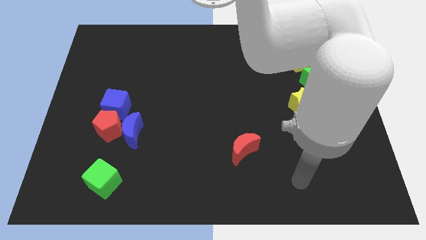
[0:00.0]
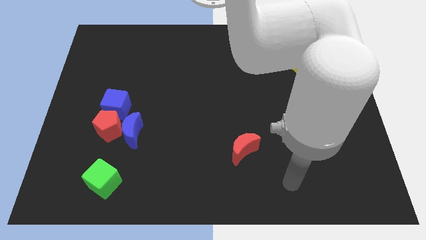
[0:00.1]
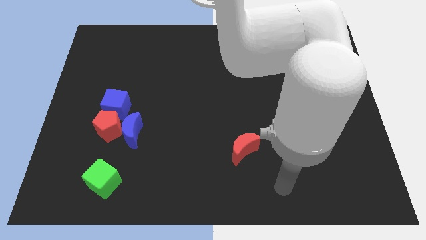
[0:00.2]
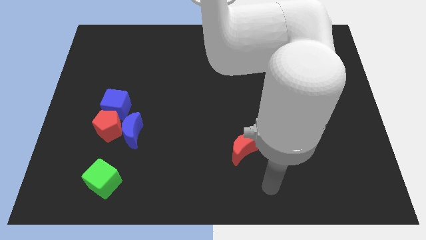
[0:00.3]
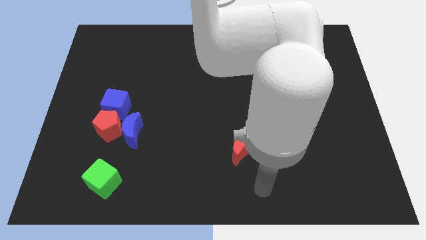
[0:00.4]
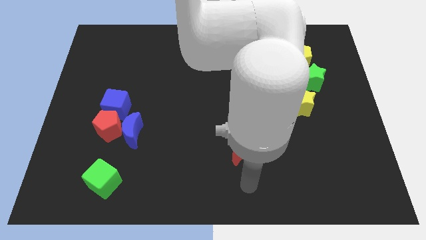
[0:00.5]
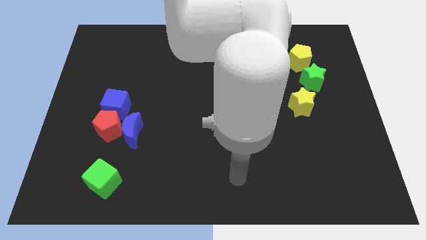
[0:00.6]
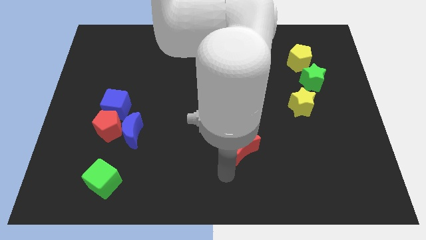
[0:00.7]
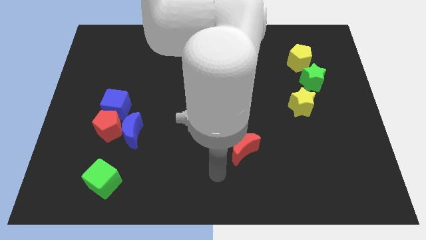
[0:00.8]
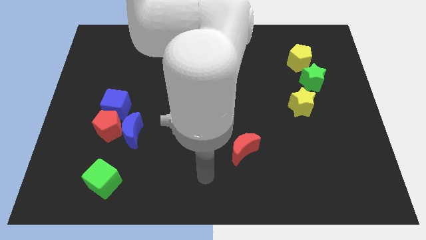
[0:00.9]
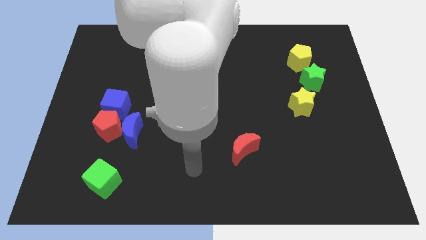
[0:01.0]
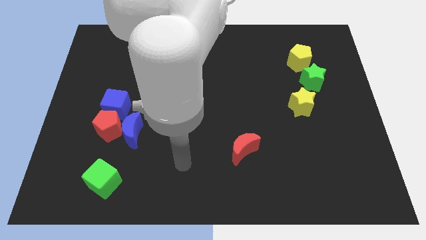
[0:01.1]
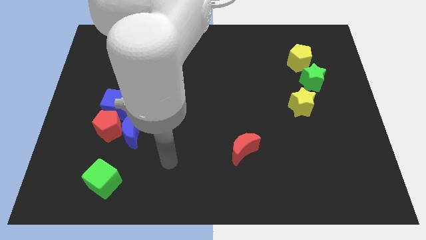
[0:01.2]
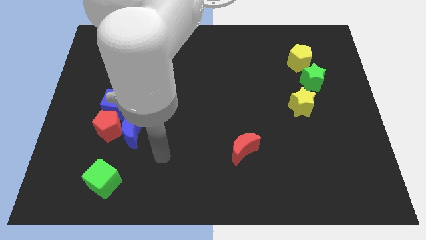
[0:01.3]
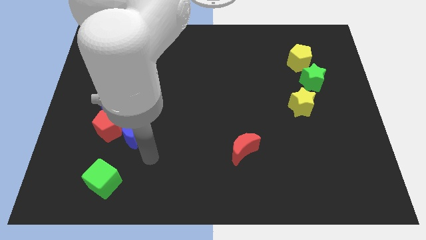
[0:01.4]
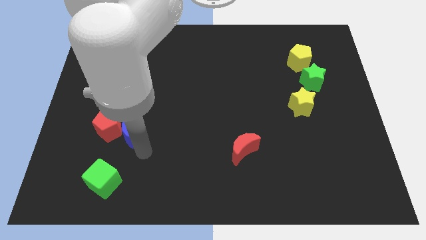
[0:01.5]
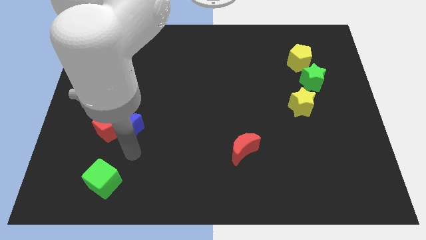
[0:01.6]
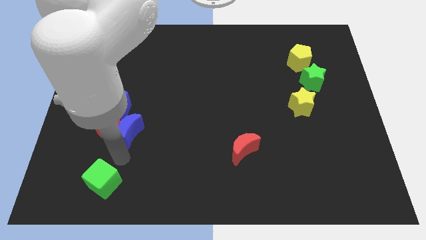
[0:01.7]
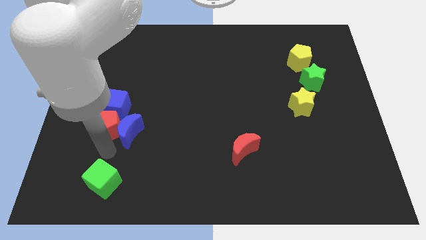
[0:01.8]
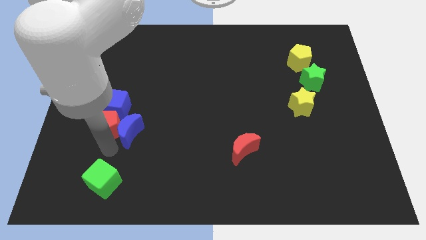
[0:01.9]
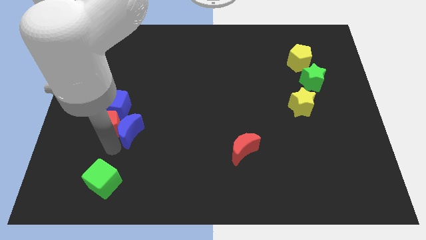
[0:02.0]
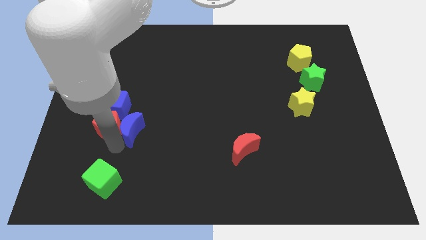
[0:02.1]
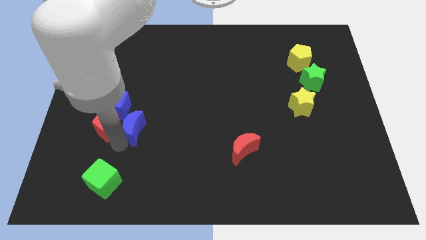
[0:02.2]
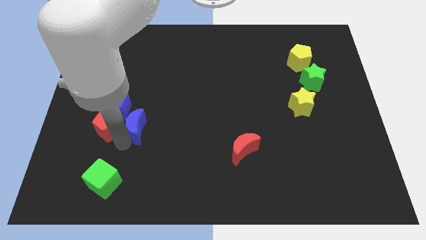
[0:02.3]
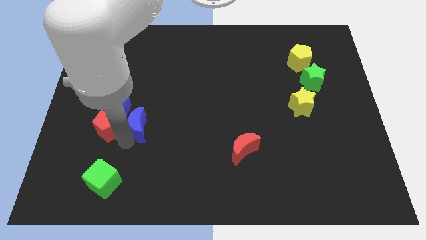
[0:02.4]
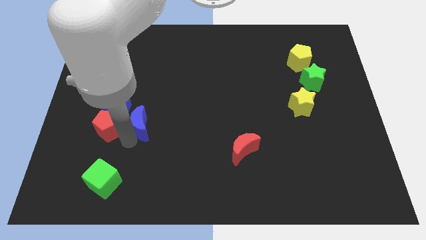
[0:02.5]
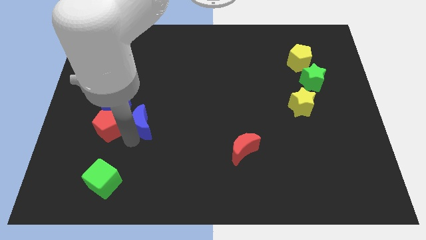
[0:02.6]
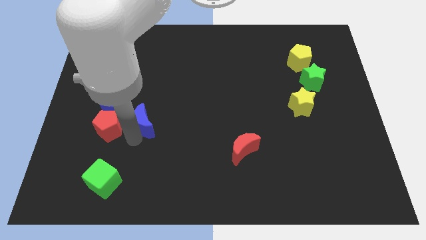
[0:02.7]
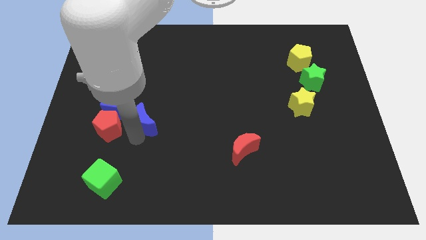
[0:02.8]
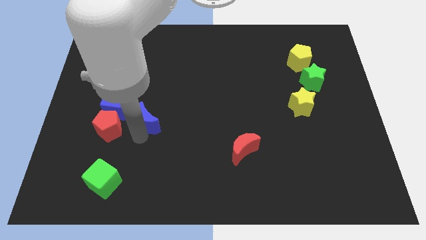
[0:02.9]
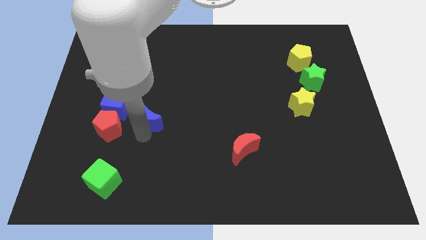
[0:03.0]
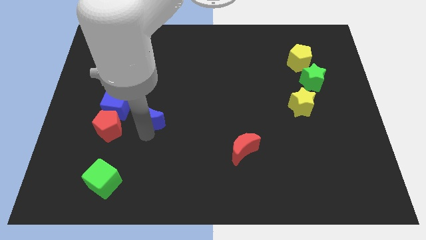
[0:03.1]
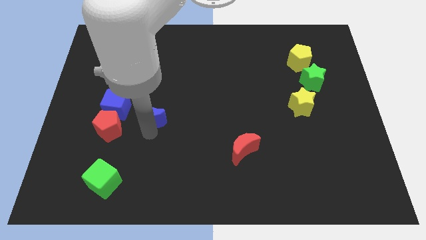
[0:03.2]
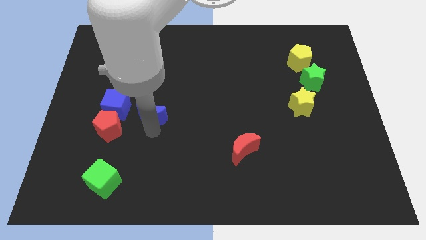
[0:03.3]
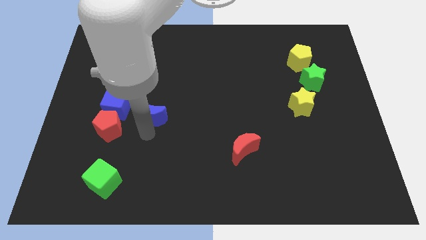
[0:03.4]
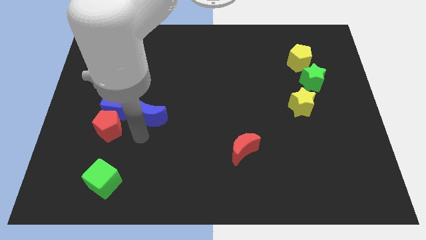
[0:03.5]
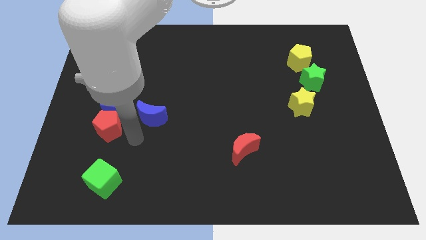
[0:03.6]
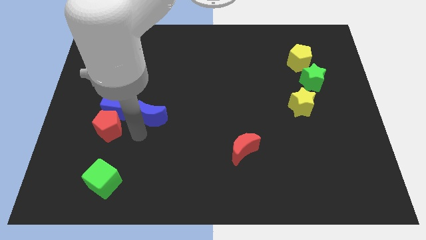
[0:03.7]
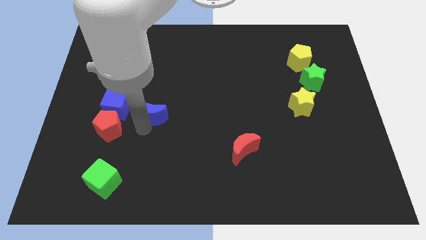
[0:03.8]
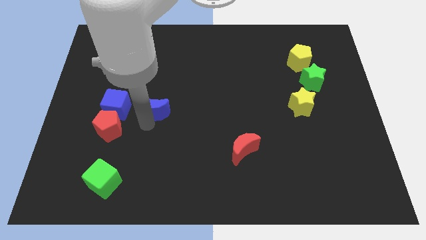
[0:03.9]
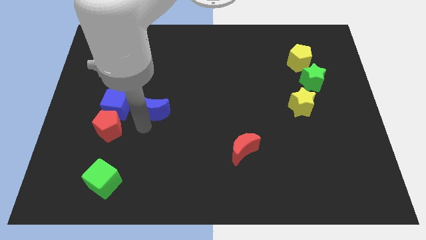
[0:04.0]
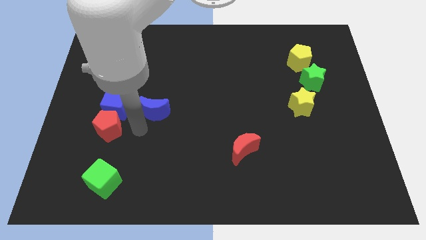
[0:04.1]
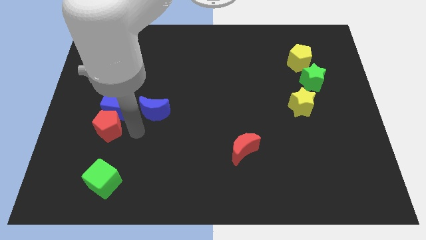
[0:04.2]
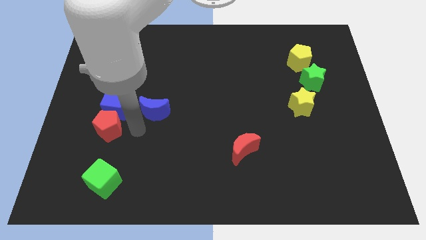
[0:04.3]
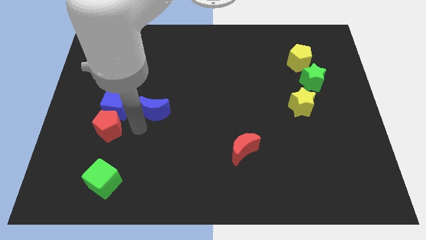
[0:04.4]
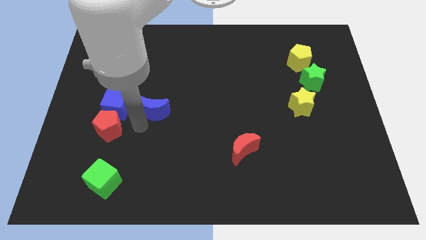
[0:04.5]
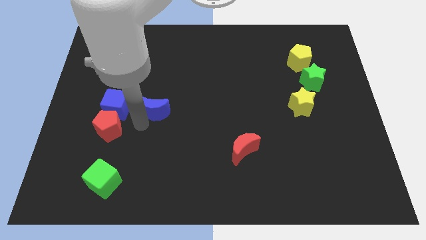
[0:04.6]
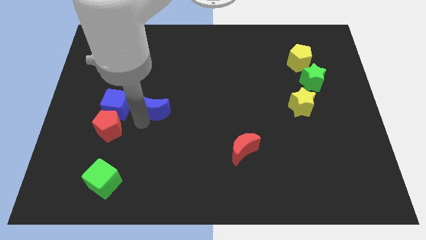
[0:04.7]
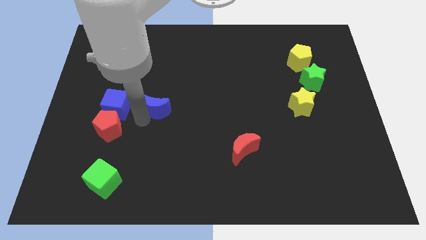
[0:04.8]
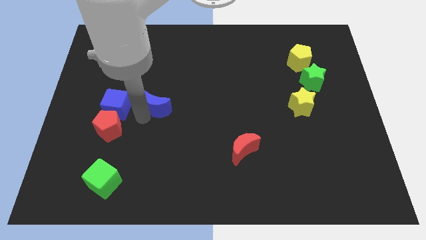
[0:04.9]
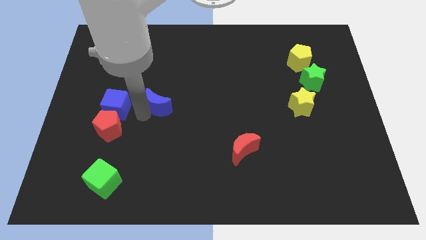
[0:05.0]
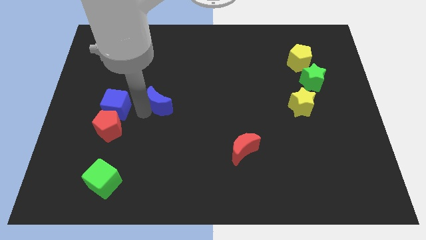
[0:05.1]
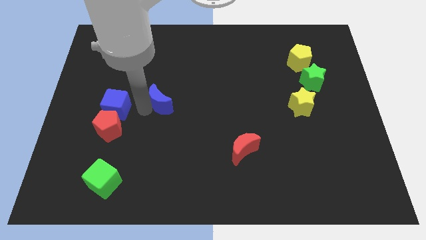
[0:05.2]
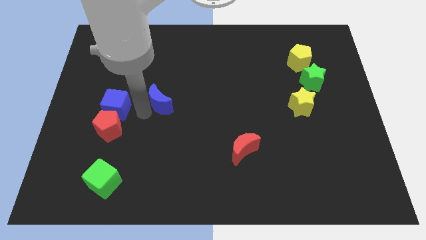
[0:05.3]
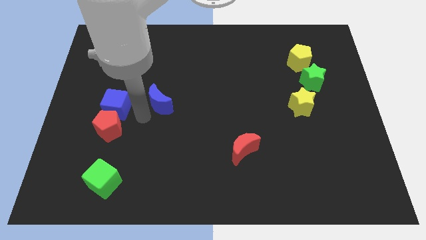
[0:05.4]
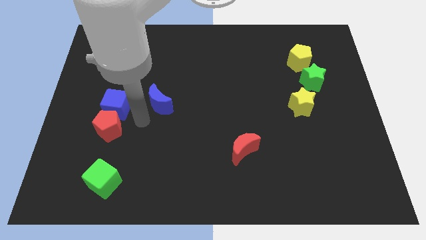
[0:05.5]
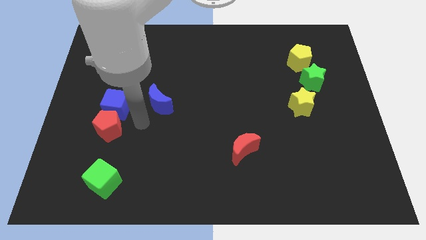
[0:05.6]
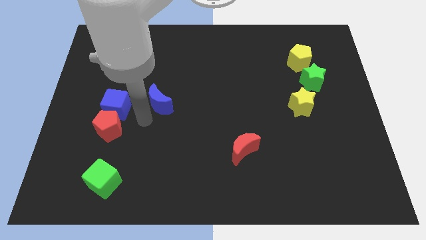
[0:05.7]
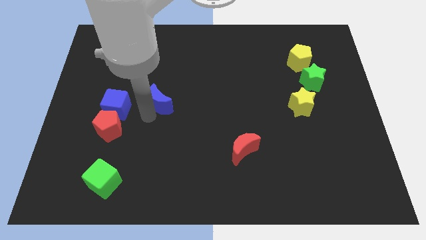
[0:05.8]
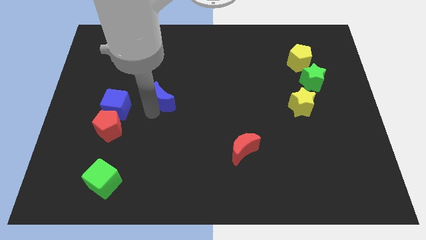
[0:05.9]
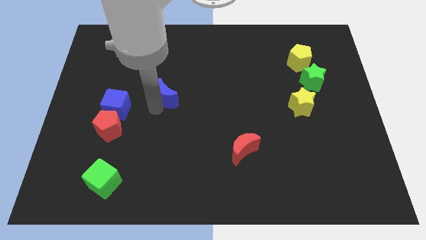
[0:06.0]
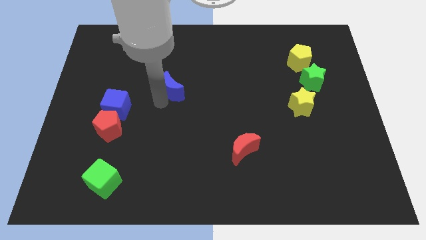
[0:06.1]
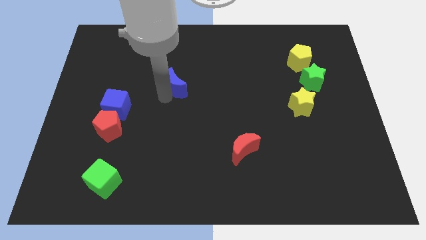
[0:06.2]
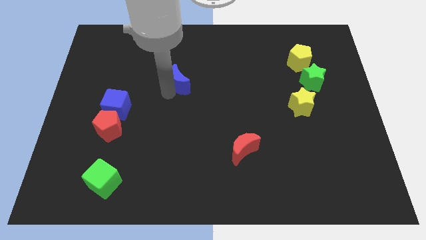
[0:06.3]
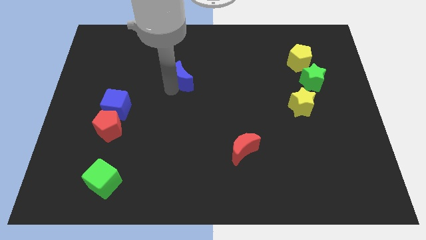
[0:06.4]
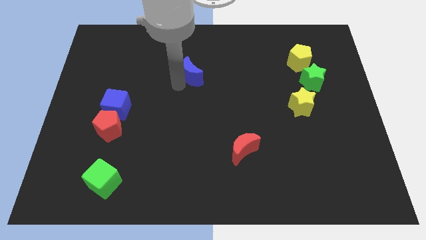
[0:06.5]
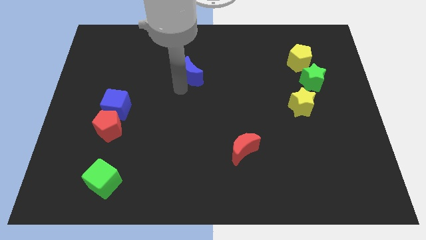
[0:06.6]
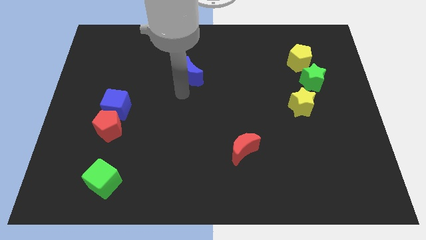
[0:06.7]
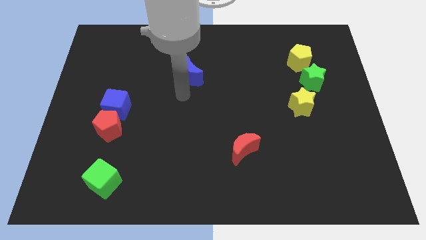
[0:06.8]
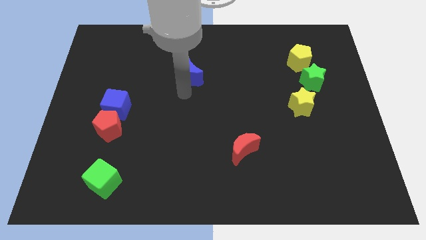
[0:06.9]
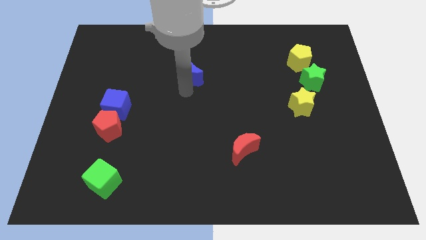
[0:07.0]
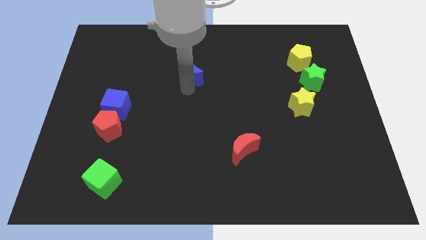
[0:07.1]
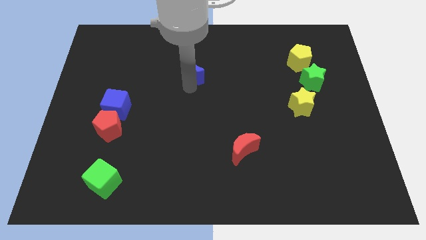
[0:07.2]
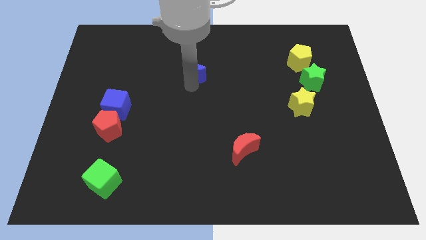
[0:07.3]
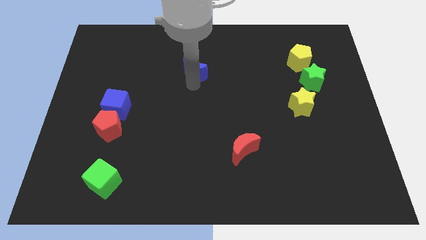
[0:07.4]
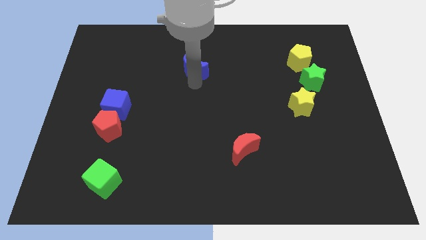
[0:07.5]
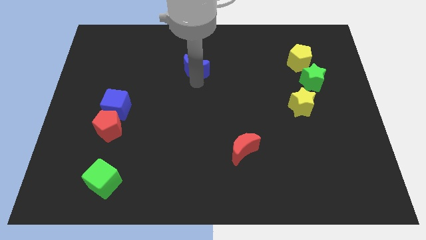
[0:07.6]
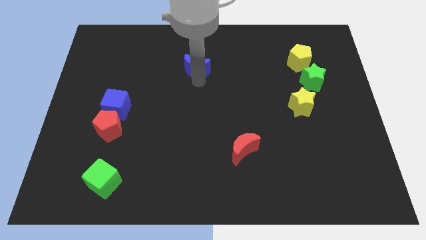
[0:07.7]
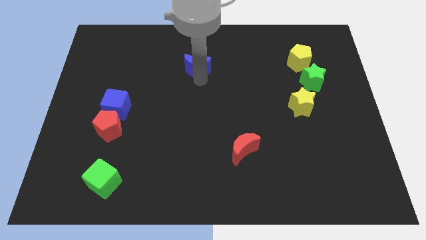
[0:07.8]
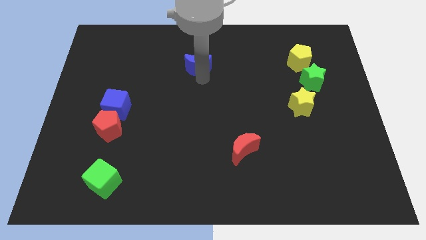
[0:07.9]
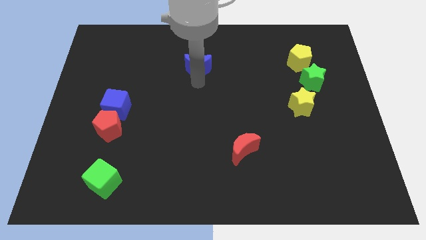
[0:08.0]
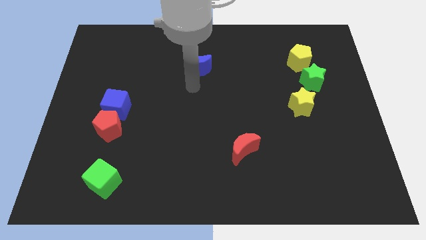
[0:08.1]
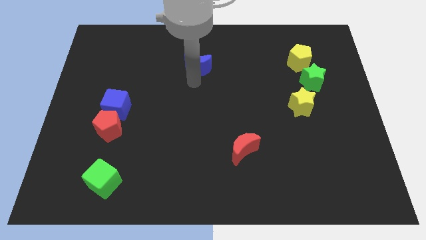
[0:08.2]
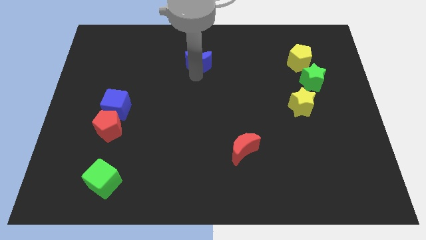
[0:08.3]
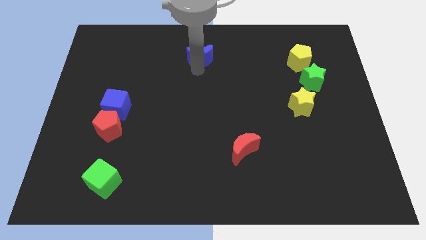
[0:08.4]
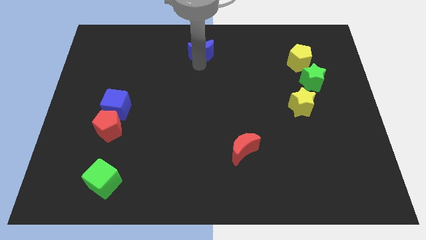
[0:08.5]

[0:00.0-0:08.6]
slide the blue moon to the top side
